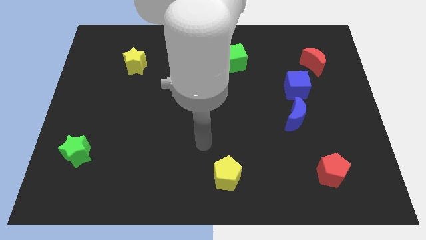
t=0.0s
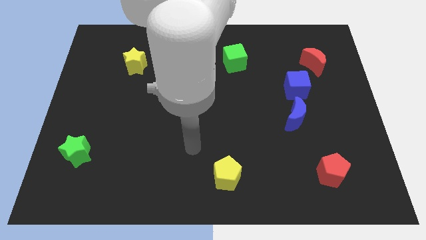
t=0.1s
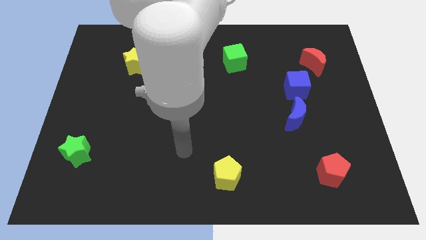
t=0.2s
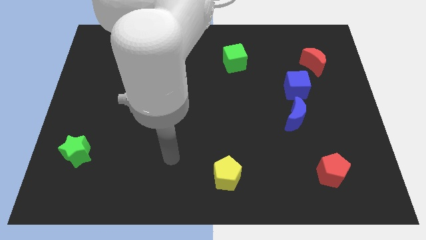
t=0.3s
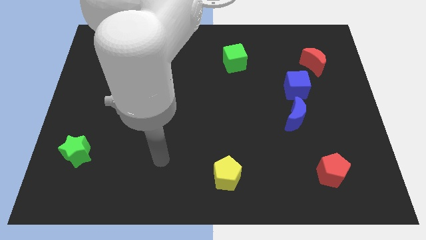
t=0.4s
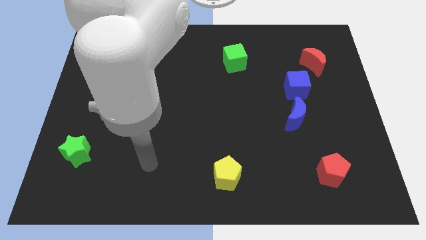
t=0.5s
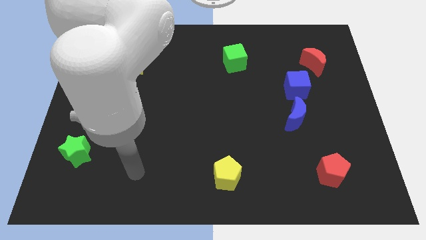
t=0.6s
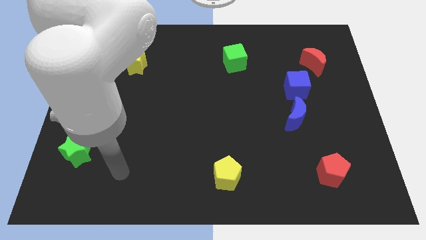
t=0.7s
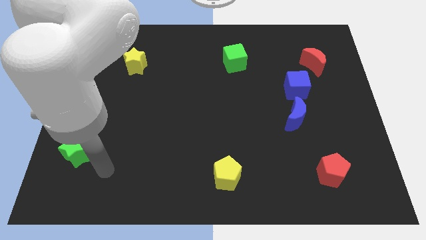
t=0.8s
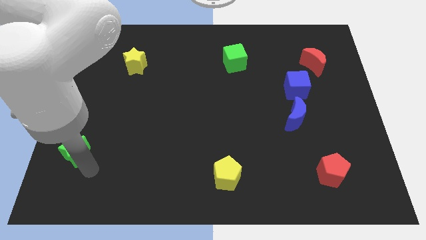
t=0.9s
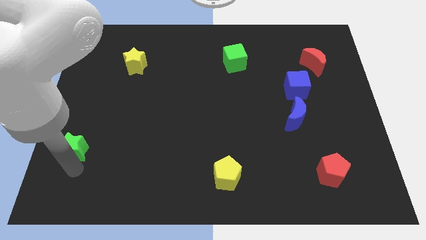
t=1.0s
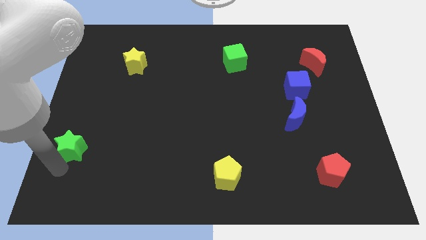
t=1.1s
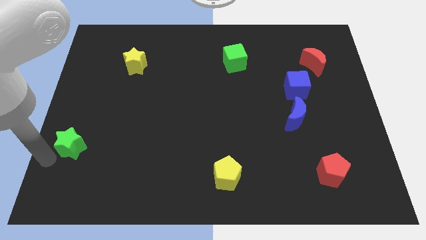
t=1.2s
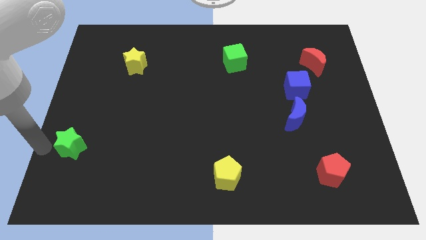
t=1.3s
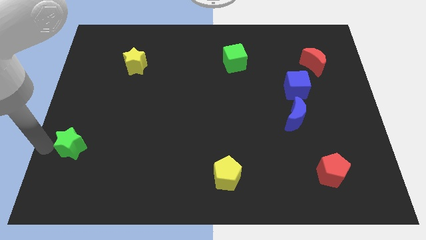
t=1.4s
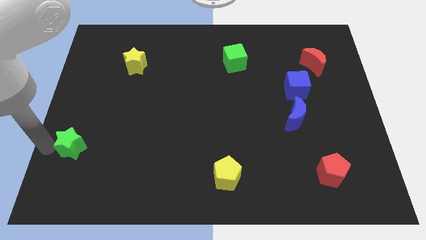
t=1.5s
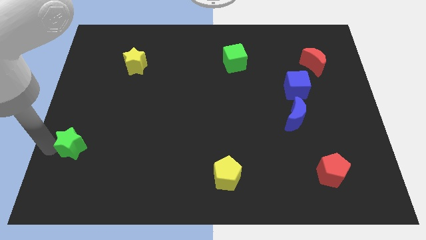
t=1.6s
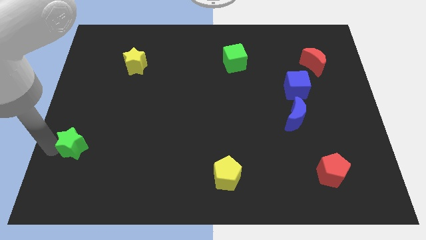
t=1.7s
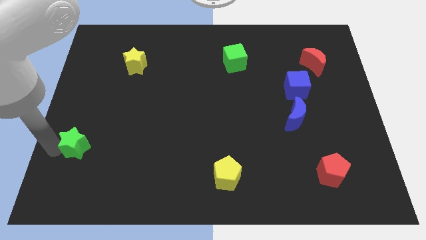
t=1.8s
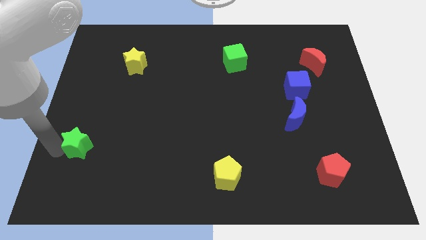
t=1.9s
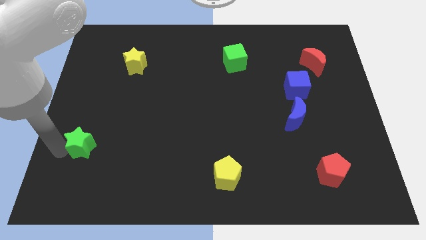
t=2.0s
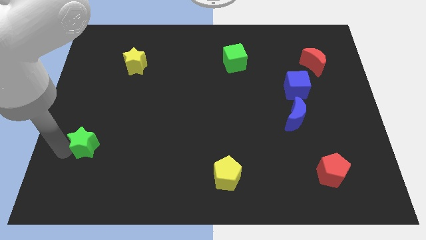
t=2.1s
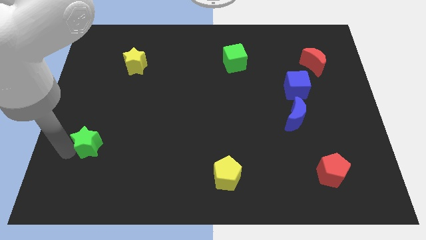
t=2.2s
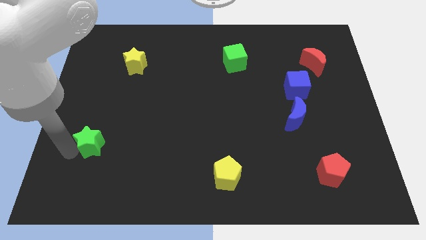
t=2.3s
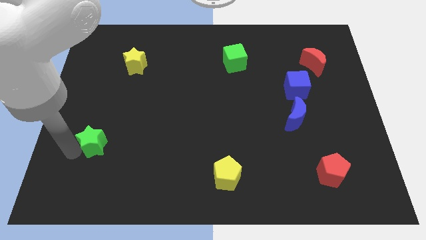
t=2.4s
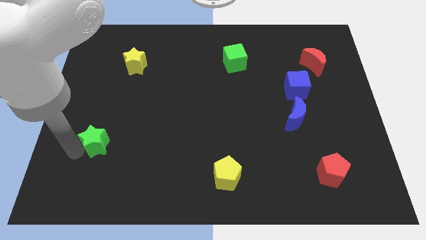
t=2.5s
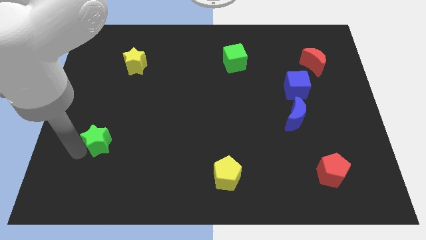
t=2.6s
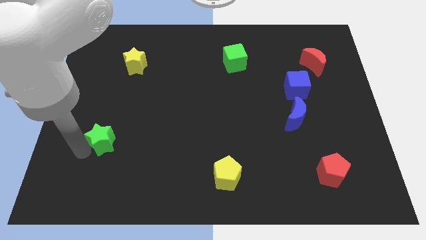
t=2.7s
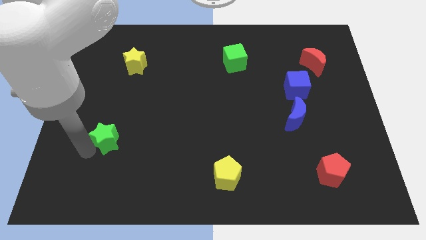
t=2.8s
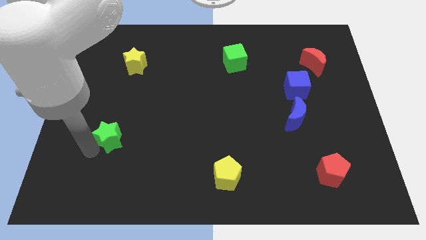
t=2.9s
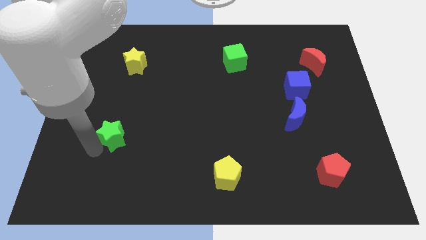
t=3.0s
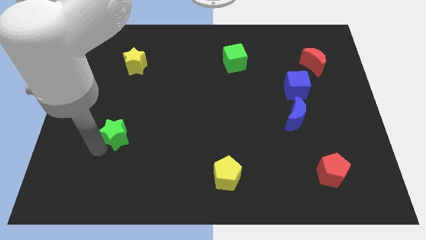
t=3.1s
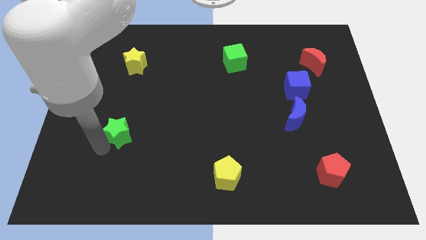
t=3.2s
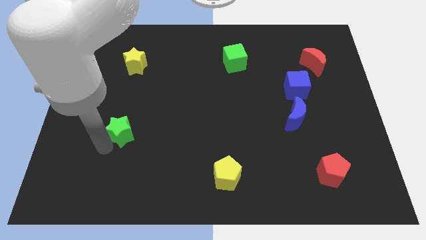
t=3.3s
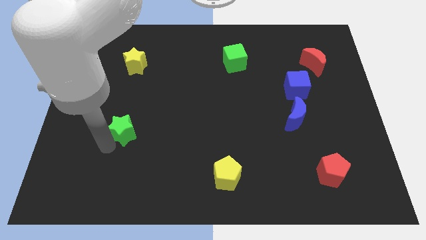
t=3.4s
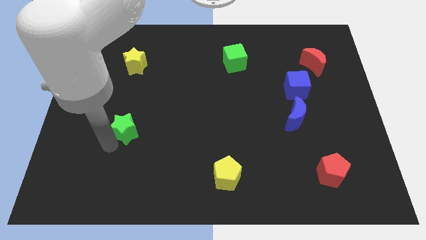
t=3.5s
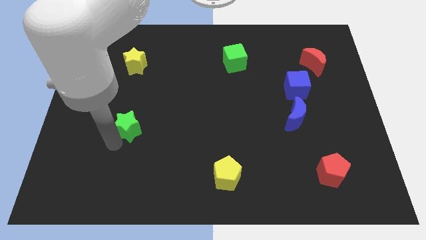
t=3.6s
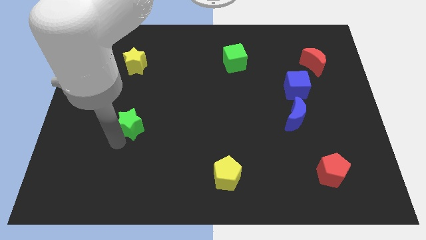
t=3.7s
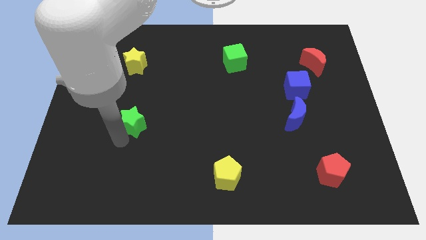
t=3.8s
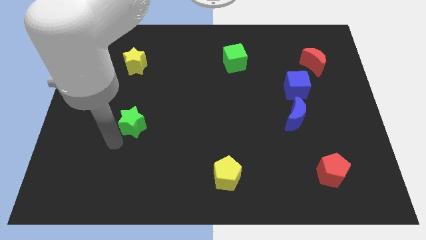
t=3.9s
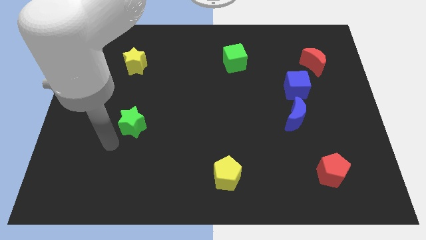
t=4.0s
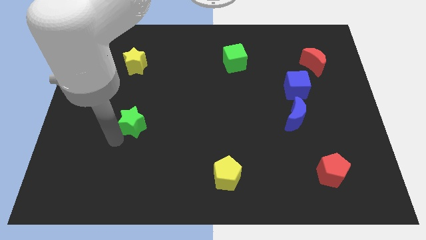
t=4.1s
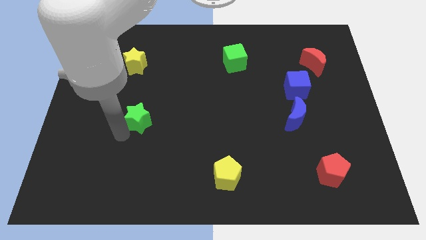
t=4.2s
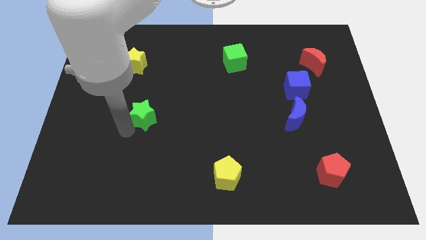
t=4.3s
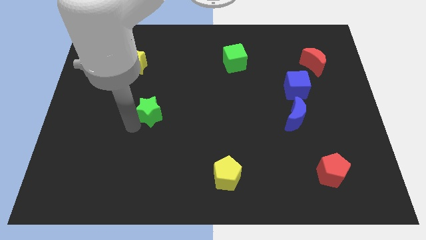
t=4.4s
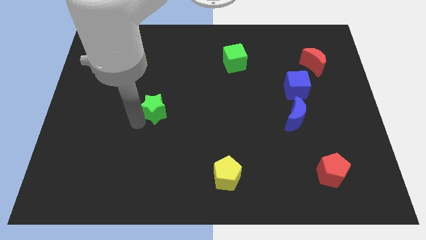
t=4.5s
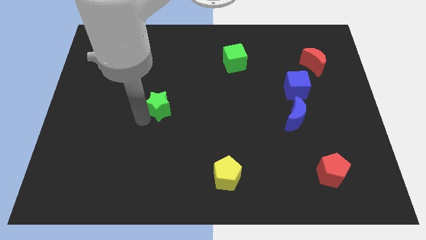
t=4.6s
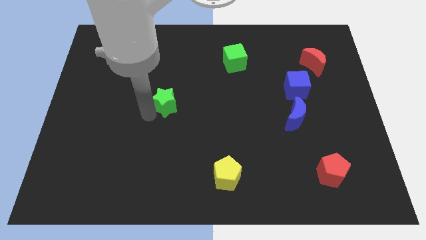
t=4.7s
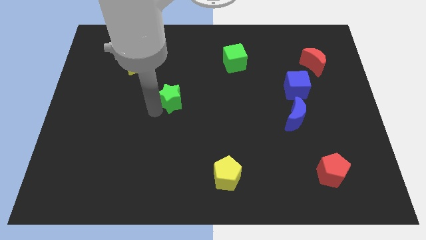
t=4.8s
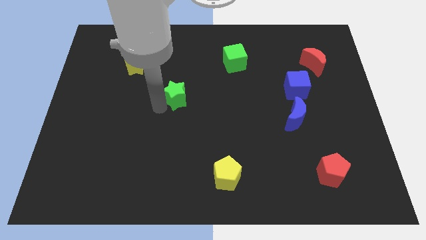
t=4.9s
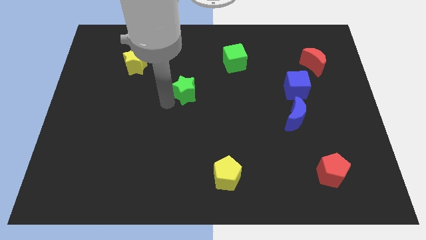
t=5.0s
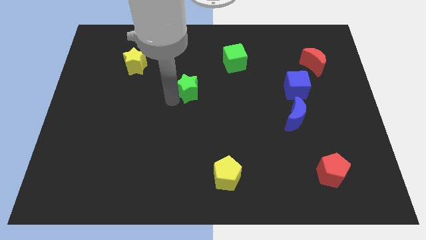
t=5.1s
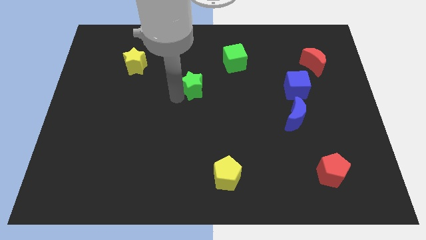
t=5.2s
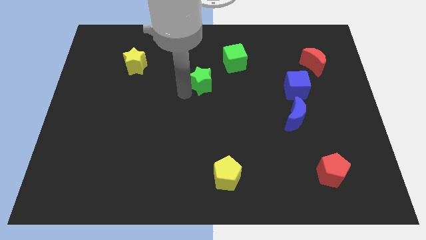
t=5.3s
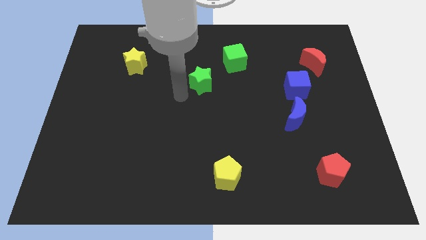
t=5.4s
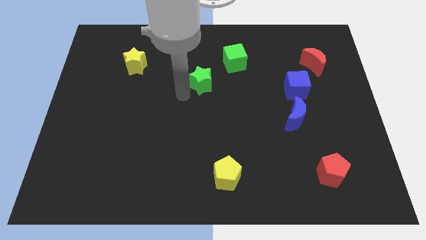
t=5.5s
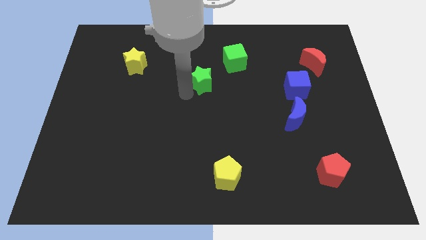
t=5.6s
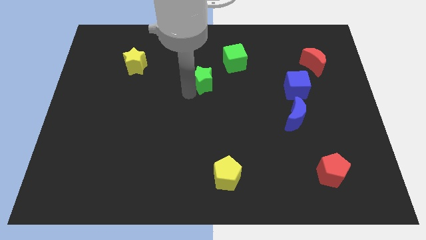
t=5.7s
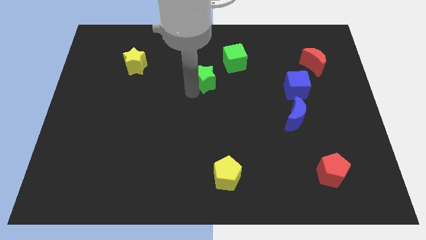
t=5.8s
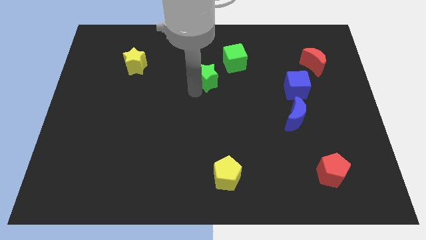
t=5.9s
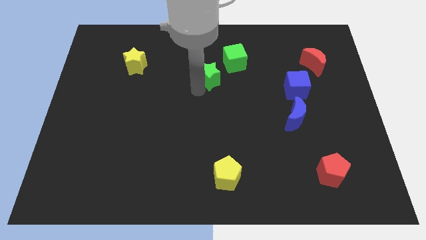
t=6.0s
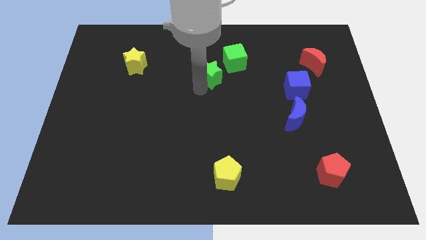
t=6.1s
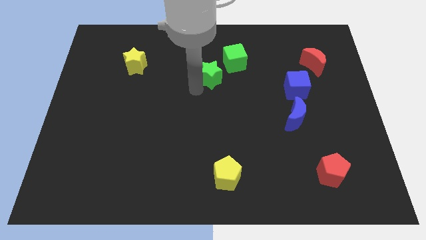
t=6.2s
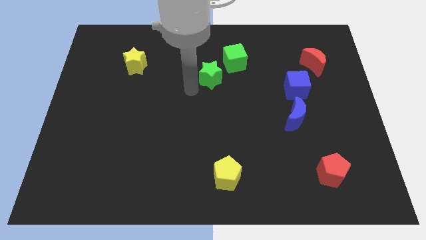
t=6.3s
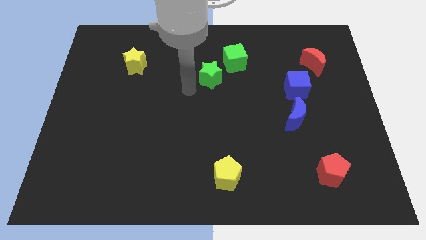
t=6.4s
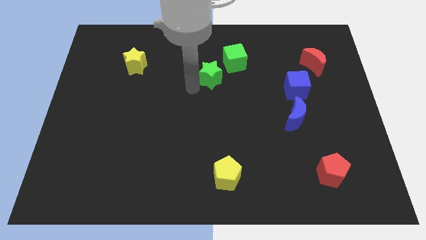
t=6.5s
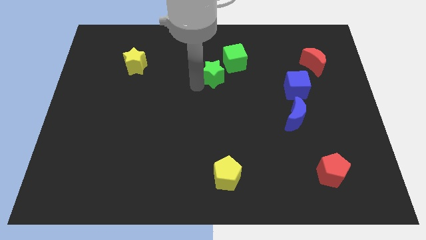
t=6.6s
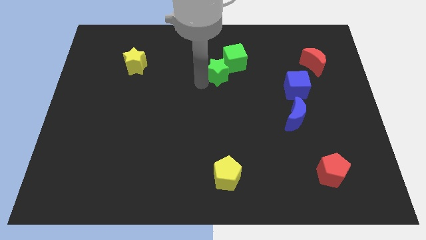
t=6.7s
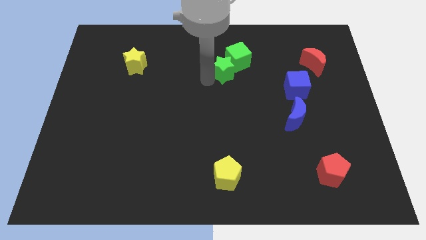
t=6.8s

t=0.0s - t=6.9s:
push the green star next to the green cube

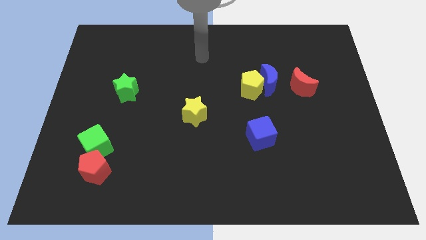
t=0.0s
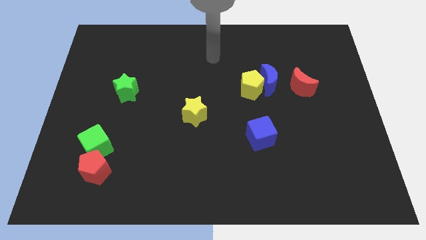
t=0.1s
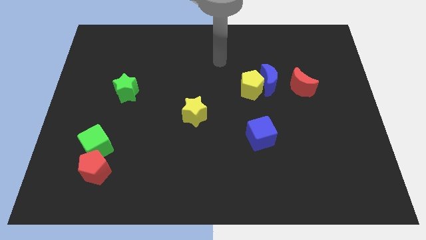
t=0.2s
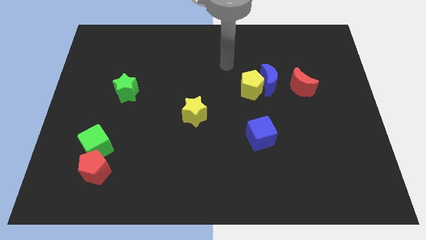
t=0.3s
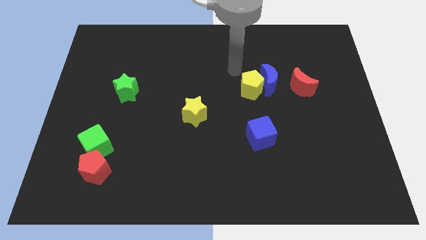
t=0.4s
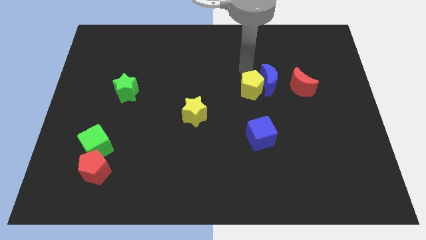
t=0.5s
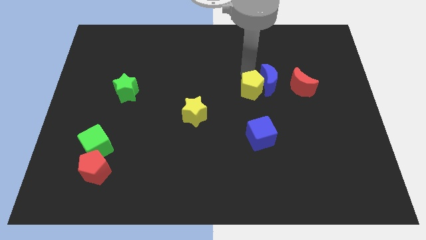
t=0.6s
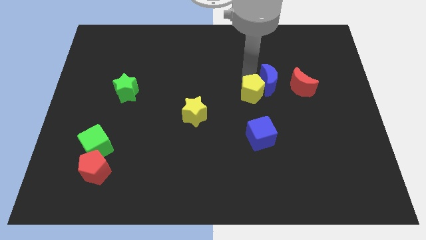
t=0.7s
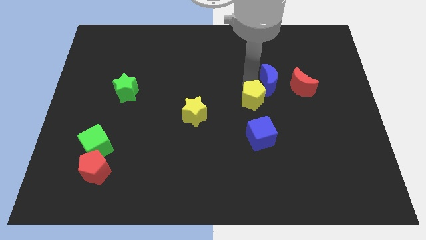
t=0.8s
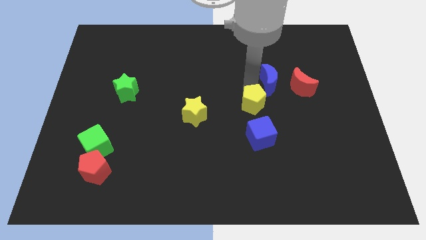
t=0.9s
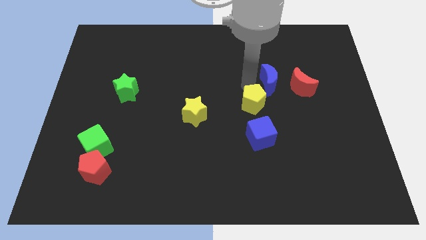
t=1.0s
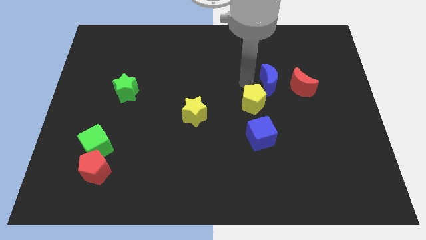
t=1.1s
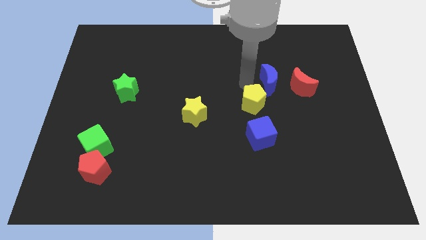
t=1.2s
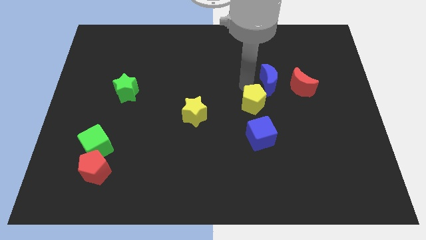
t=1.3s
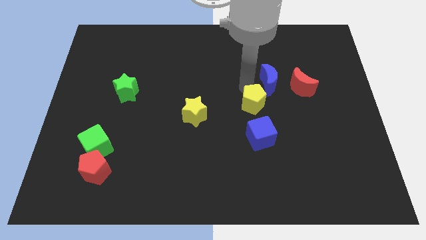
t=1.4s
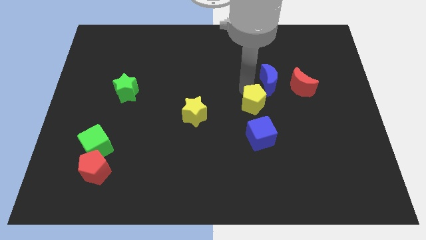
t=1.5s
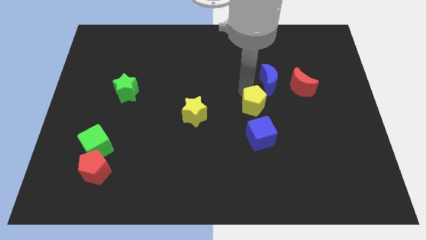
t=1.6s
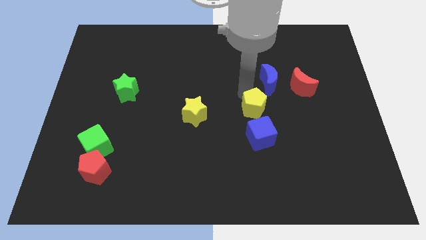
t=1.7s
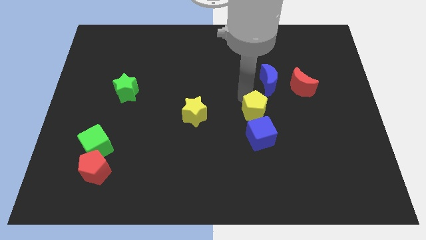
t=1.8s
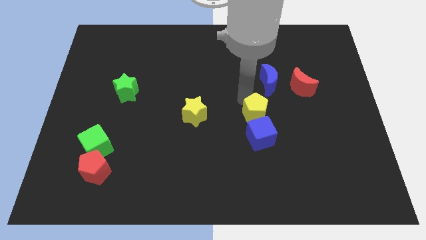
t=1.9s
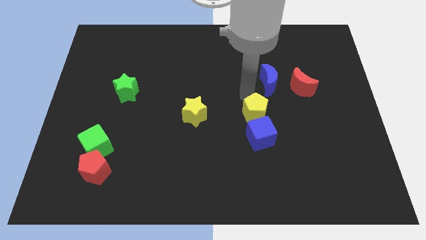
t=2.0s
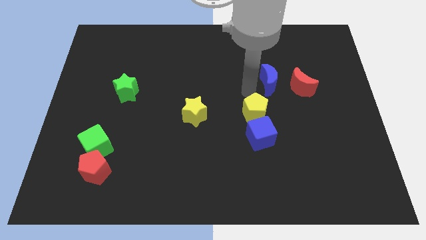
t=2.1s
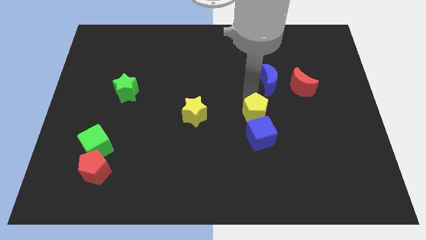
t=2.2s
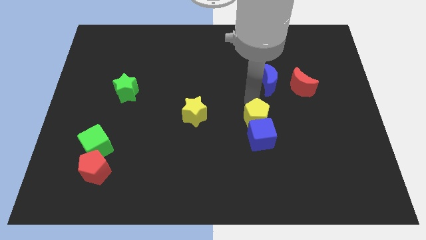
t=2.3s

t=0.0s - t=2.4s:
move the yellow pentagon close to the blue cube
